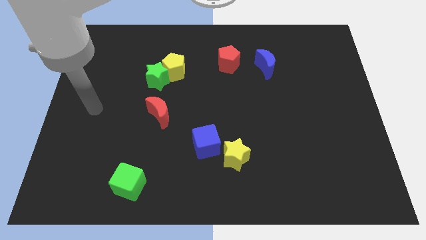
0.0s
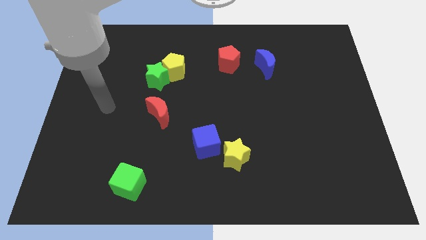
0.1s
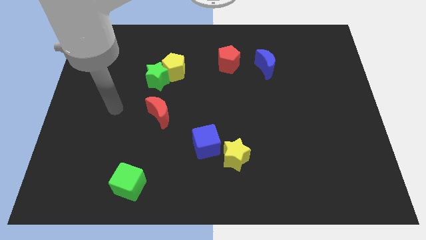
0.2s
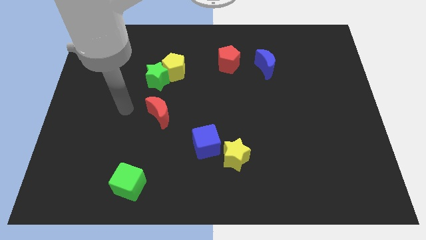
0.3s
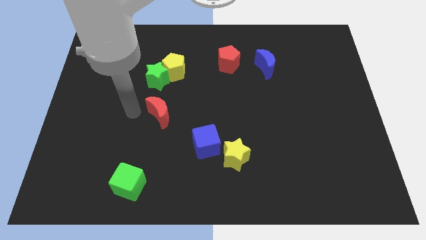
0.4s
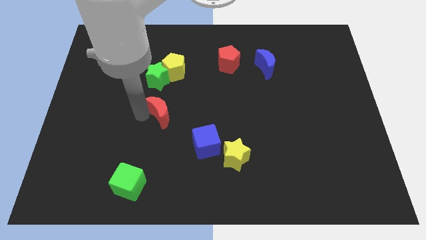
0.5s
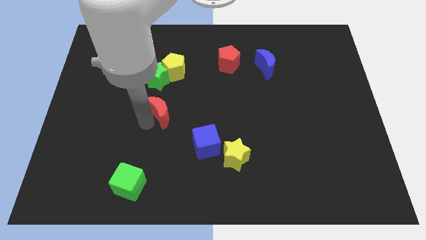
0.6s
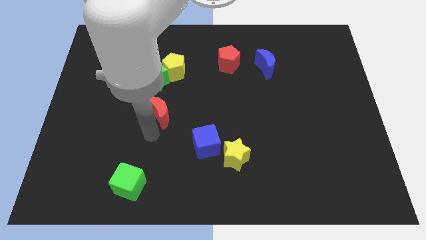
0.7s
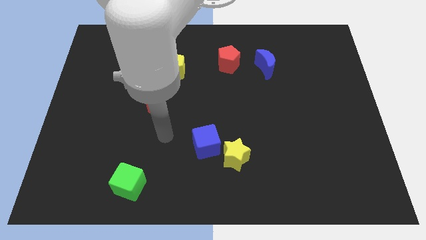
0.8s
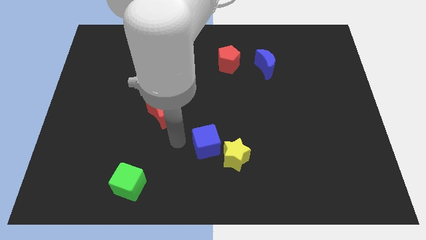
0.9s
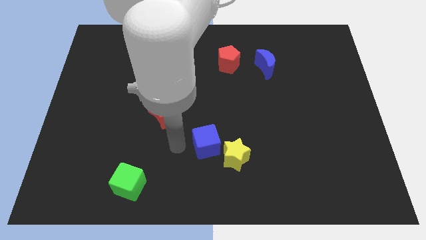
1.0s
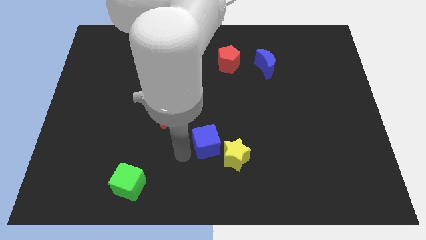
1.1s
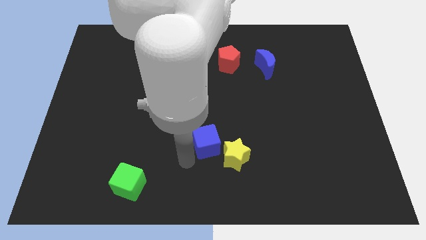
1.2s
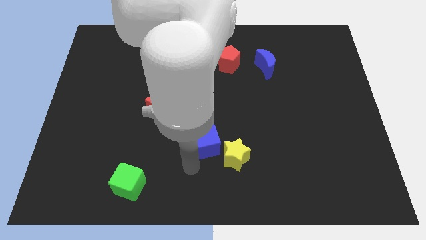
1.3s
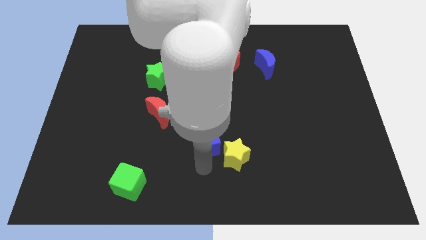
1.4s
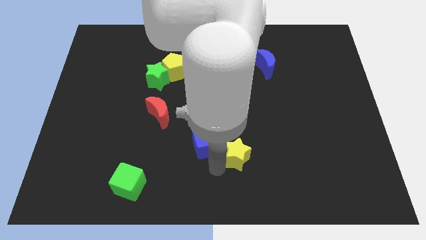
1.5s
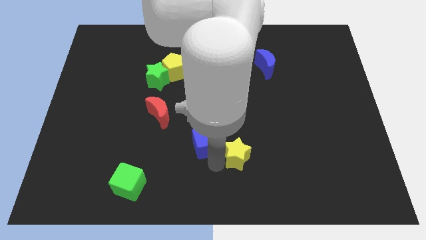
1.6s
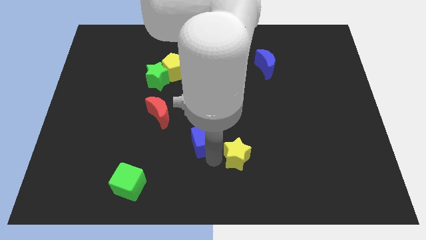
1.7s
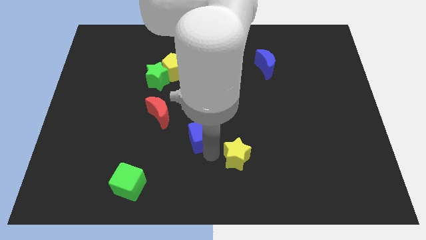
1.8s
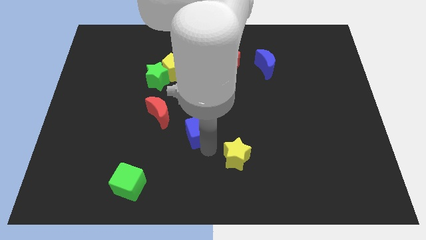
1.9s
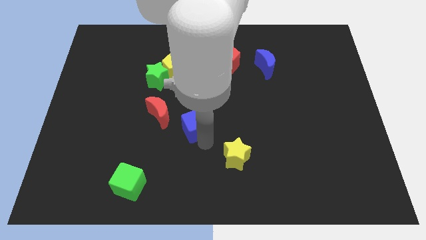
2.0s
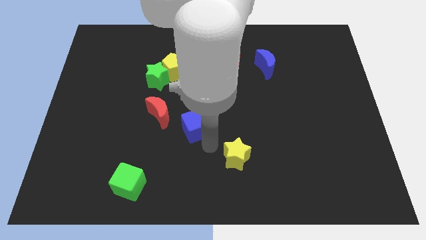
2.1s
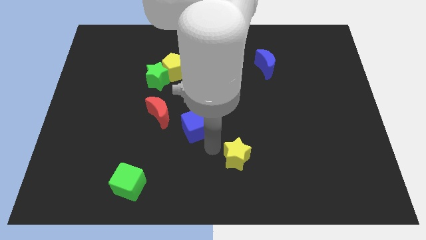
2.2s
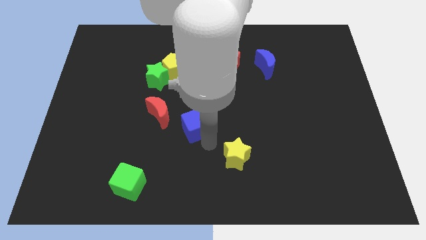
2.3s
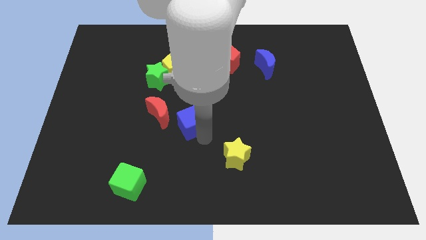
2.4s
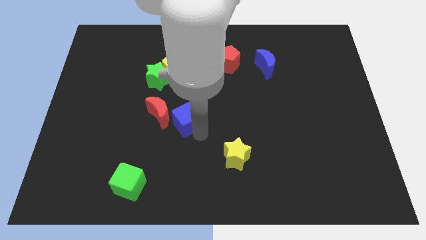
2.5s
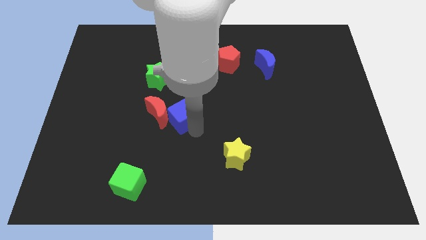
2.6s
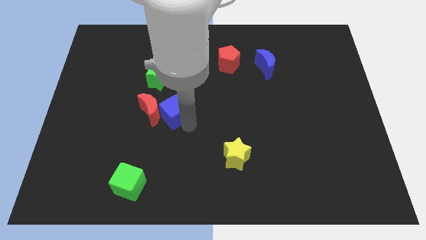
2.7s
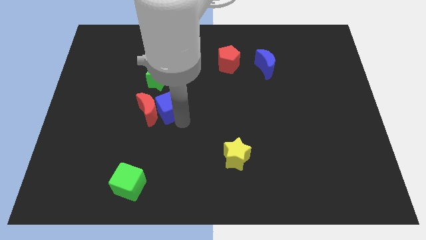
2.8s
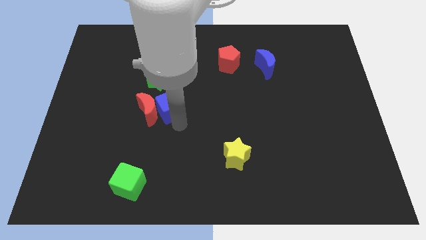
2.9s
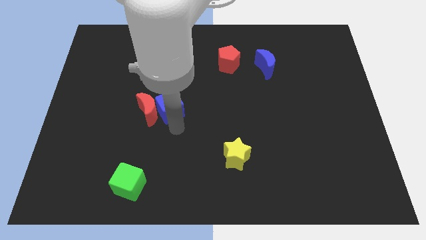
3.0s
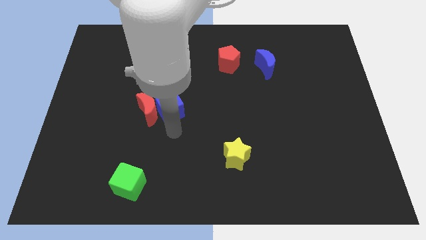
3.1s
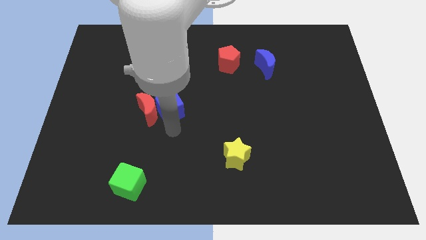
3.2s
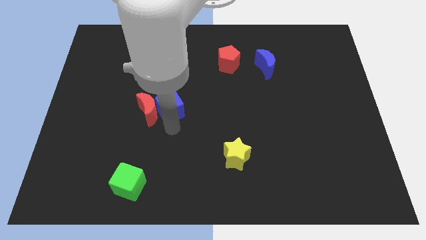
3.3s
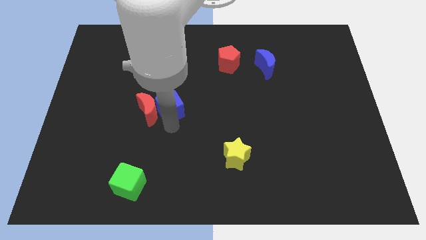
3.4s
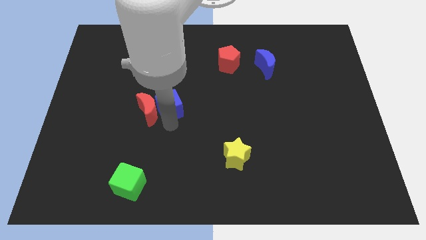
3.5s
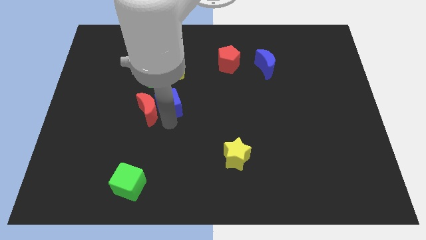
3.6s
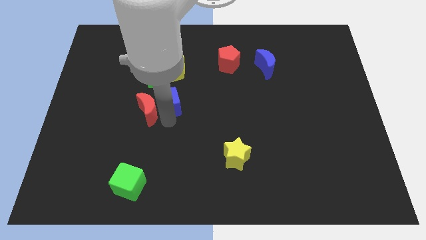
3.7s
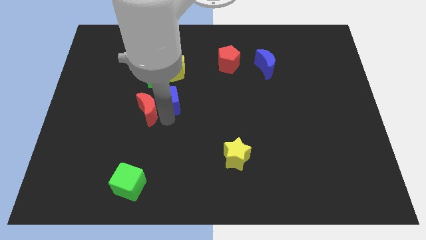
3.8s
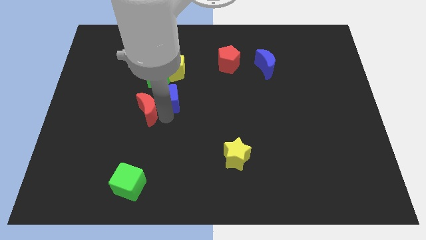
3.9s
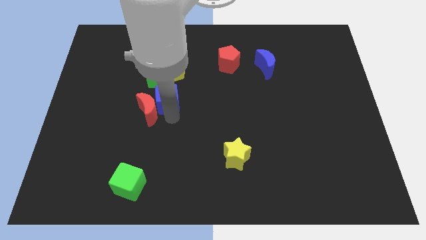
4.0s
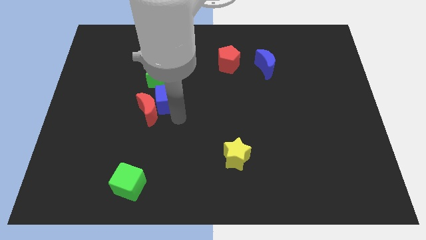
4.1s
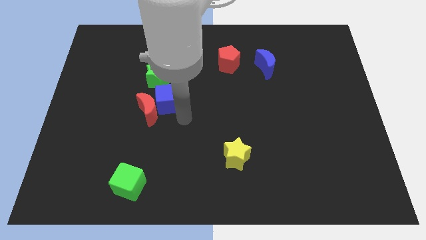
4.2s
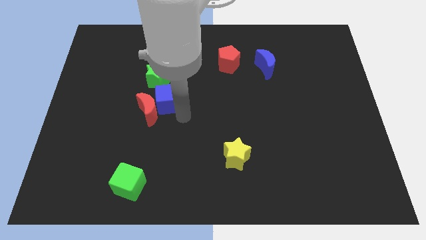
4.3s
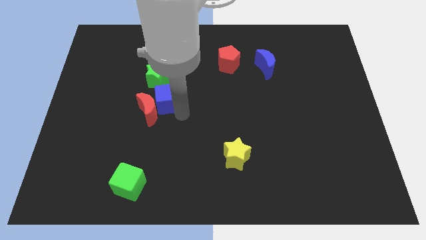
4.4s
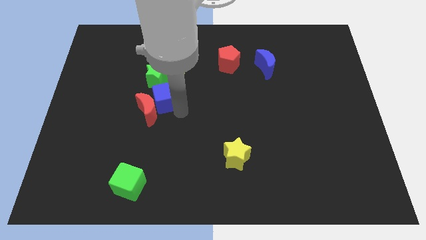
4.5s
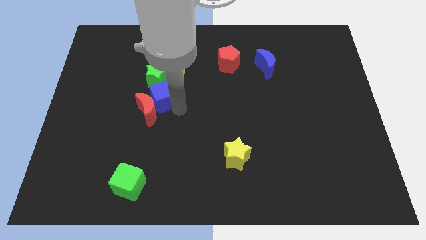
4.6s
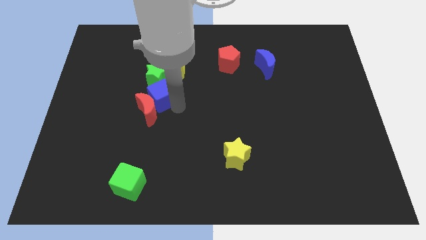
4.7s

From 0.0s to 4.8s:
put the blue cube to the bottom left side of the yellow pentagon

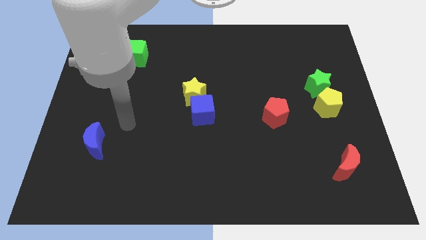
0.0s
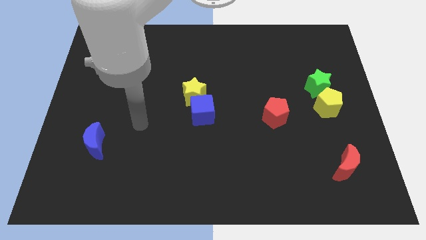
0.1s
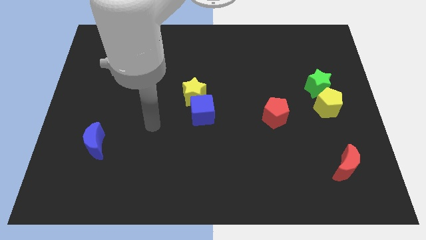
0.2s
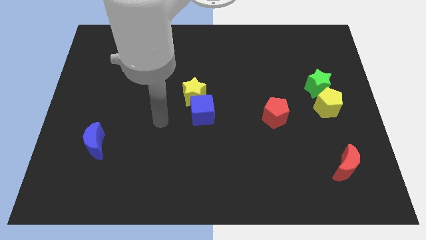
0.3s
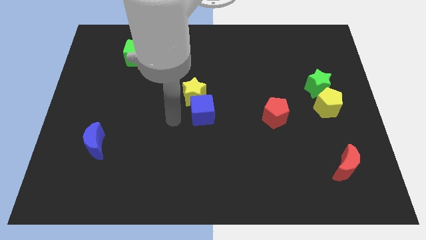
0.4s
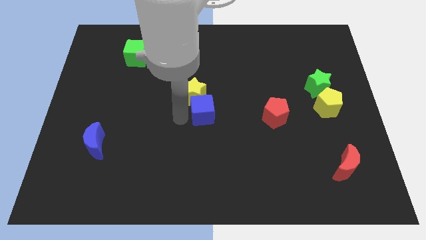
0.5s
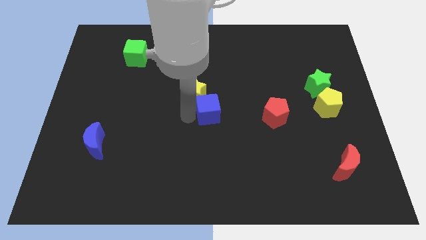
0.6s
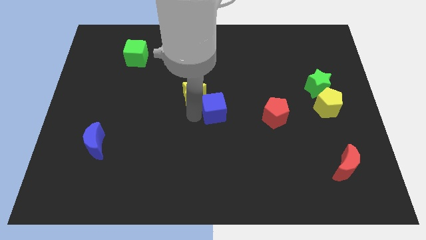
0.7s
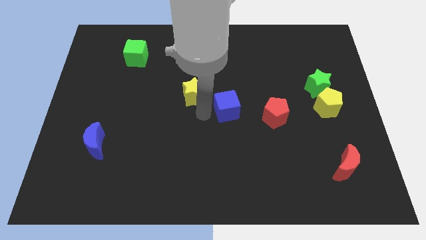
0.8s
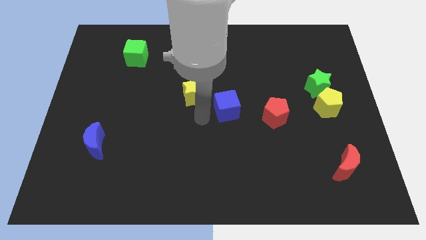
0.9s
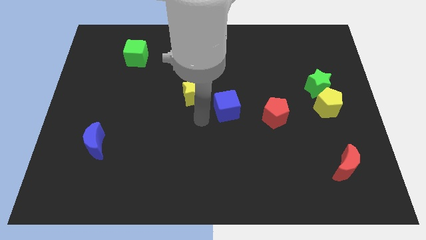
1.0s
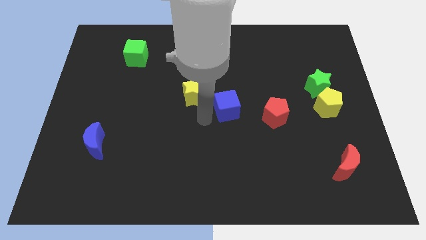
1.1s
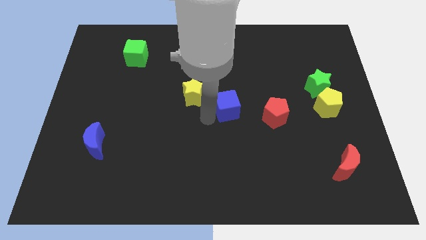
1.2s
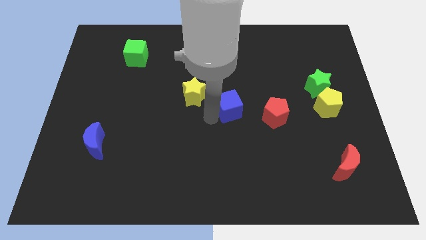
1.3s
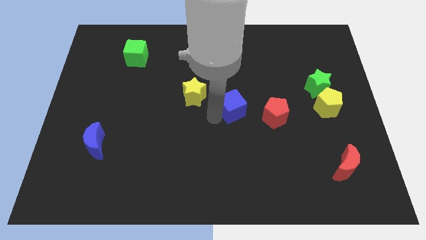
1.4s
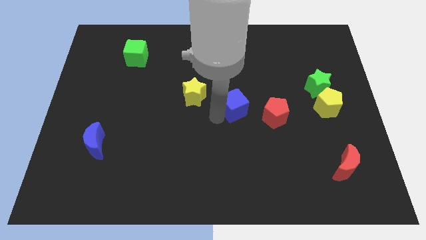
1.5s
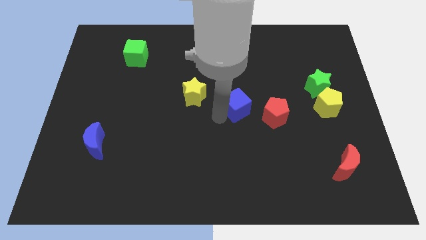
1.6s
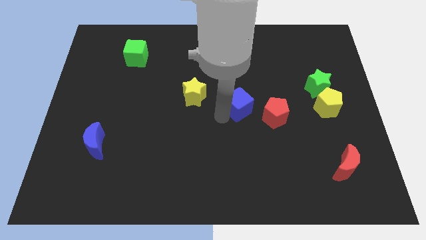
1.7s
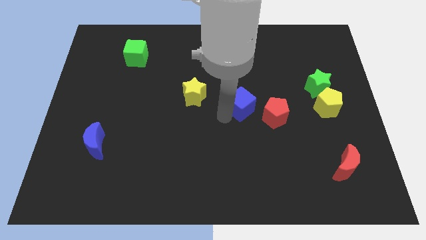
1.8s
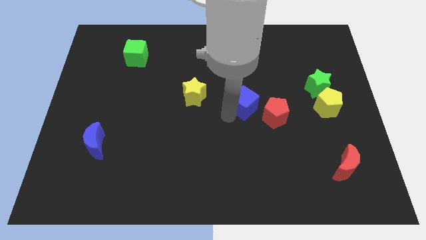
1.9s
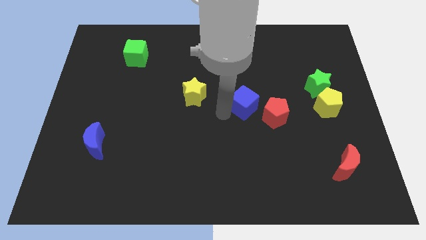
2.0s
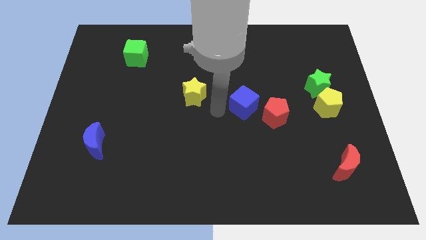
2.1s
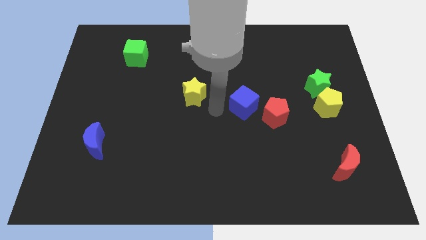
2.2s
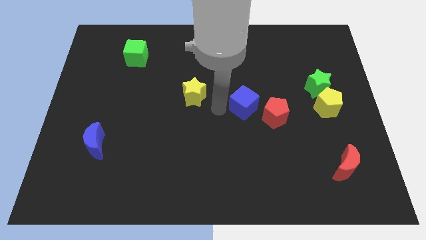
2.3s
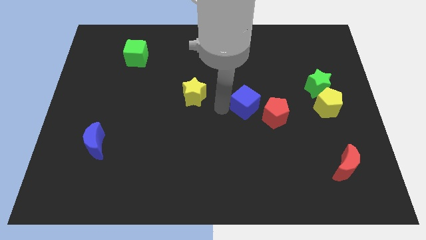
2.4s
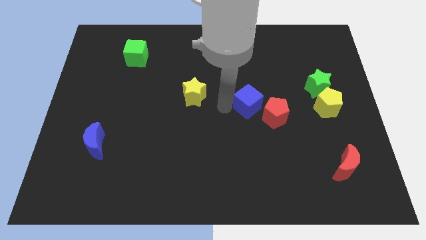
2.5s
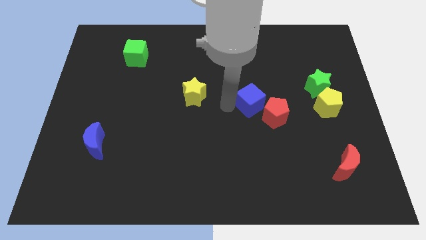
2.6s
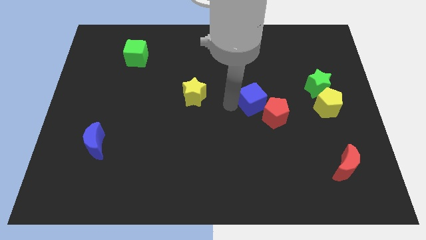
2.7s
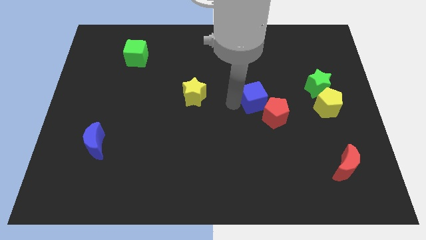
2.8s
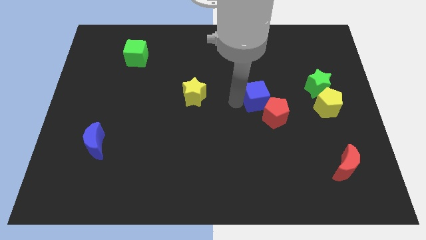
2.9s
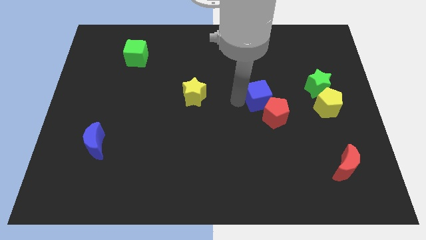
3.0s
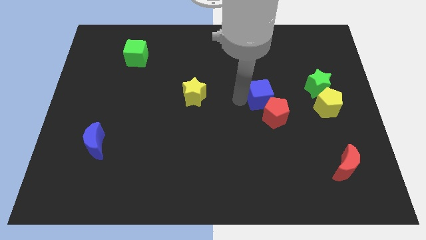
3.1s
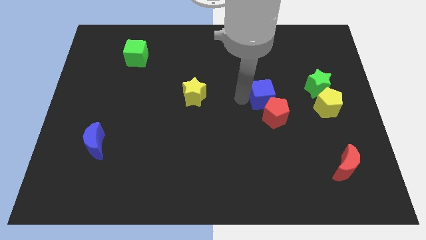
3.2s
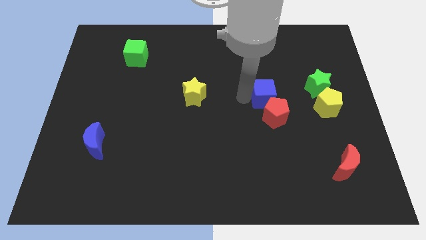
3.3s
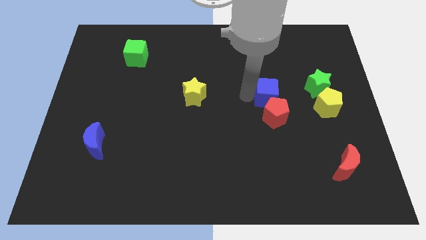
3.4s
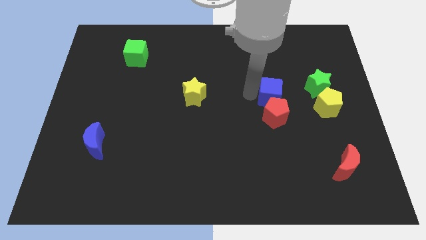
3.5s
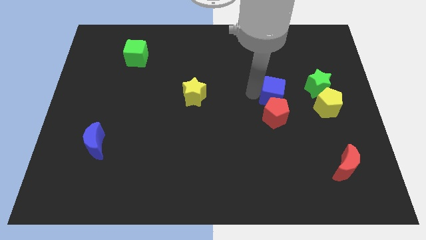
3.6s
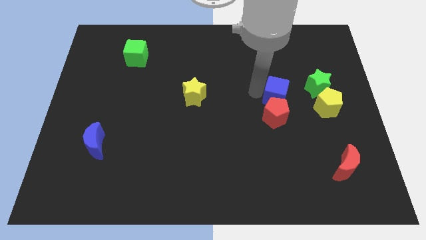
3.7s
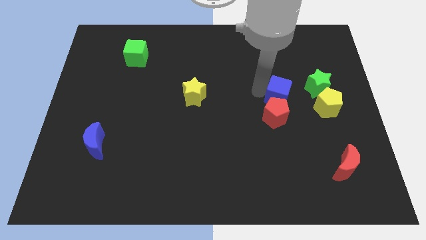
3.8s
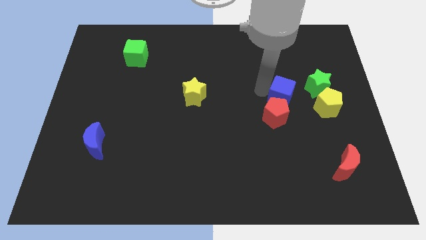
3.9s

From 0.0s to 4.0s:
put the blue cube diagonally down and to the left of the green star
